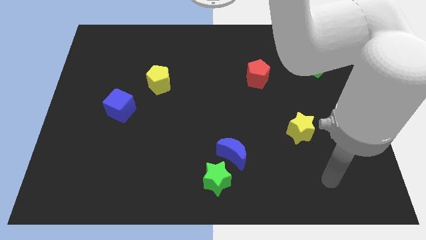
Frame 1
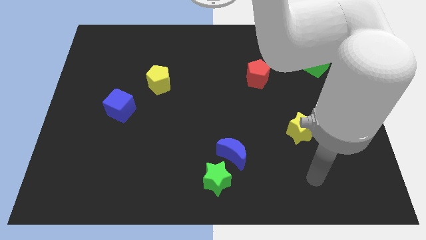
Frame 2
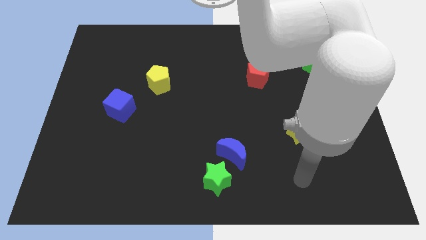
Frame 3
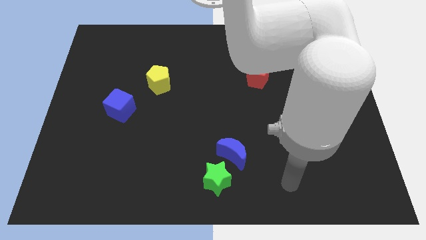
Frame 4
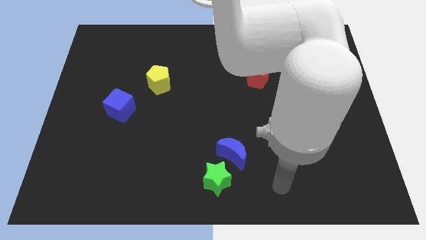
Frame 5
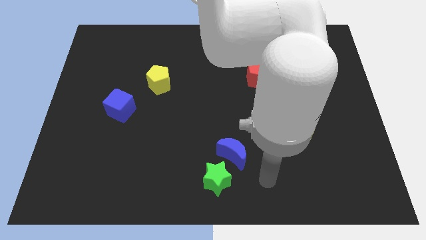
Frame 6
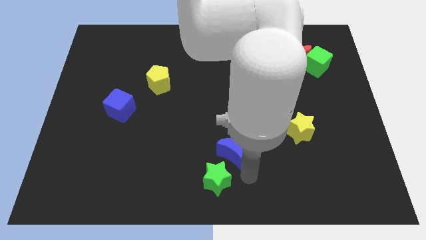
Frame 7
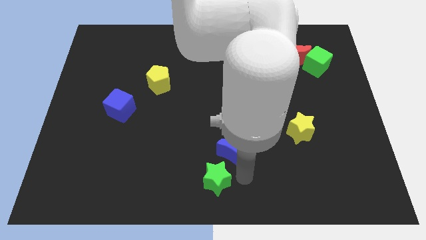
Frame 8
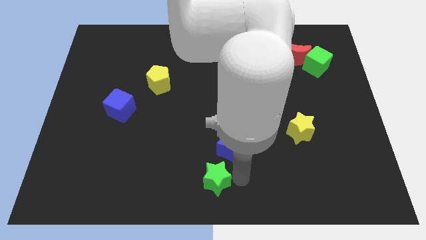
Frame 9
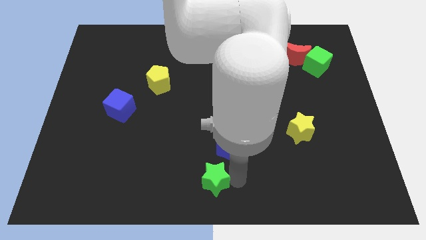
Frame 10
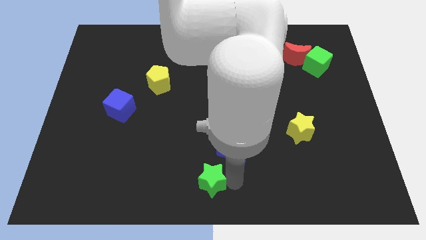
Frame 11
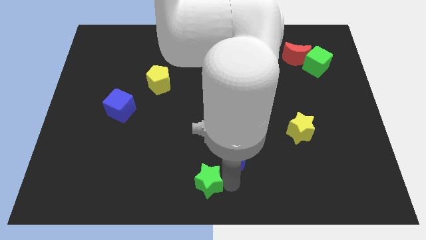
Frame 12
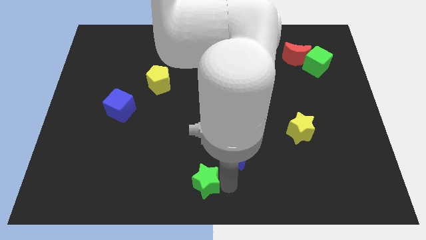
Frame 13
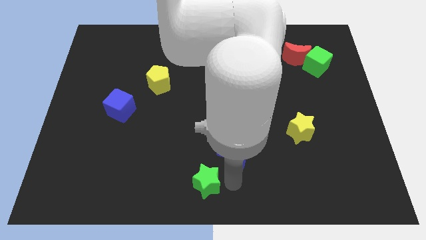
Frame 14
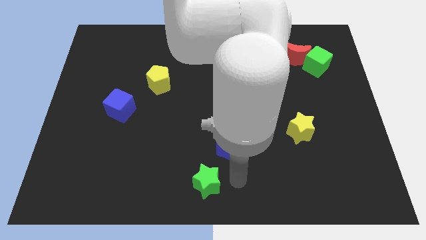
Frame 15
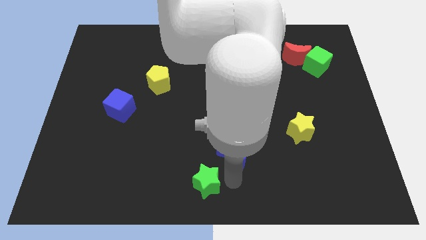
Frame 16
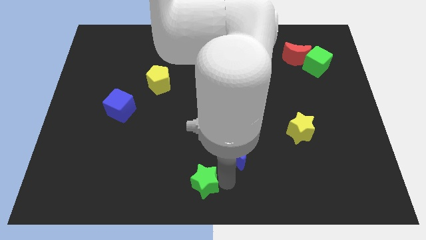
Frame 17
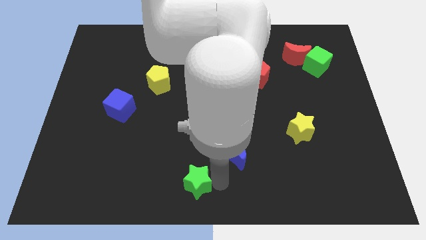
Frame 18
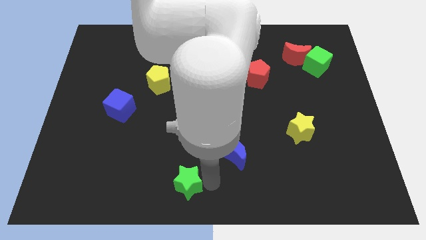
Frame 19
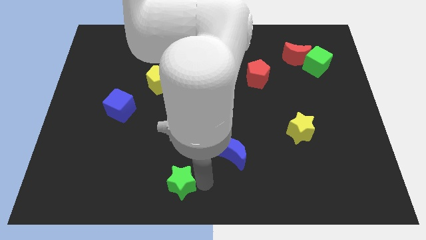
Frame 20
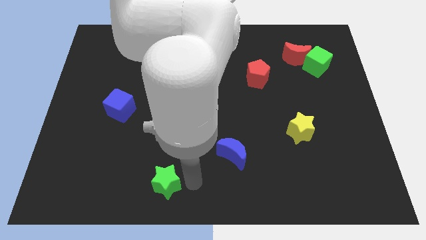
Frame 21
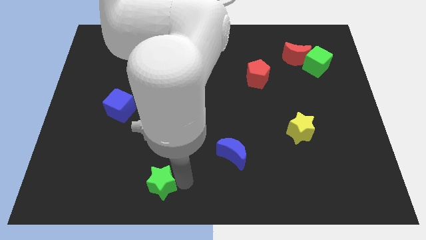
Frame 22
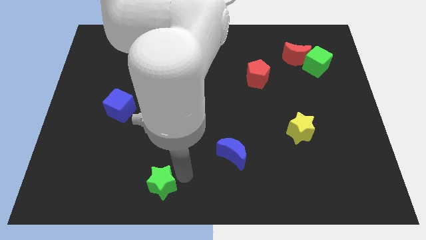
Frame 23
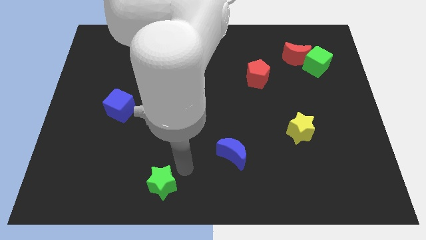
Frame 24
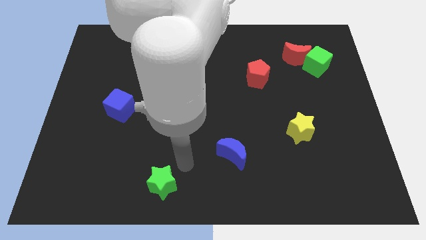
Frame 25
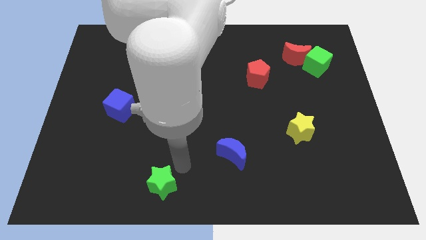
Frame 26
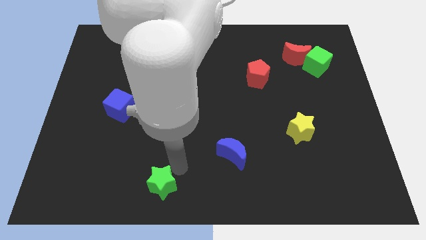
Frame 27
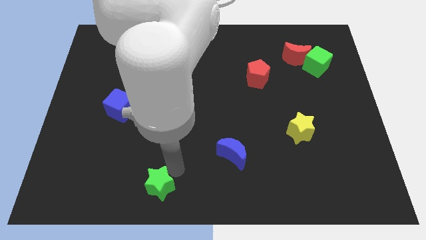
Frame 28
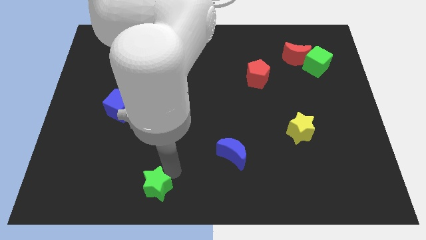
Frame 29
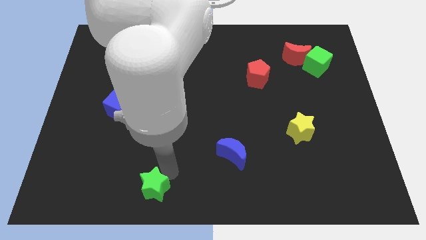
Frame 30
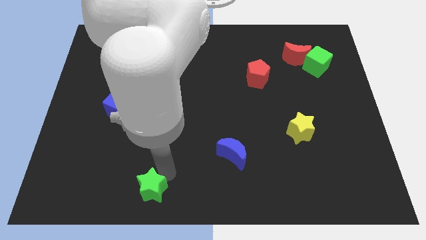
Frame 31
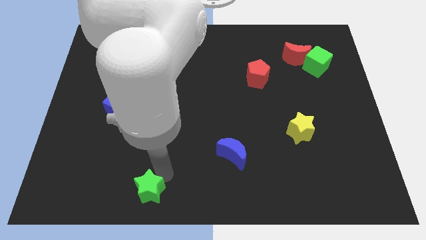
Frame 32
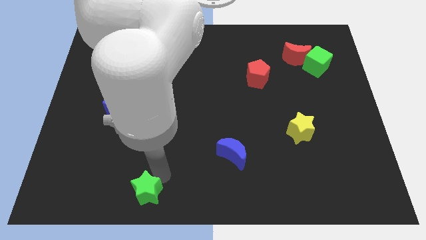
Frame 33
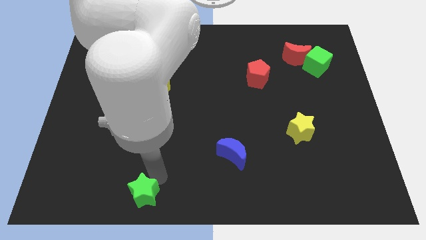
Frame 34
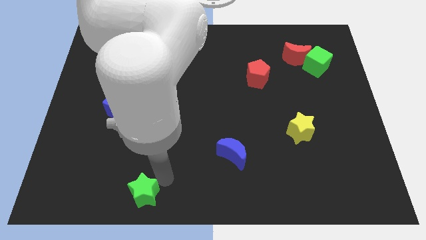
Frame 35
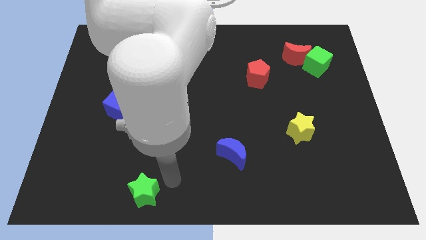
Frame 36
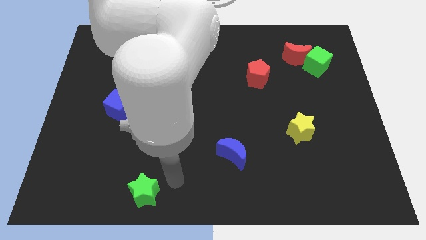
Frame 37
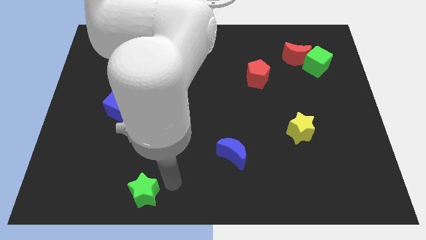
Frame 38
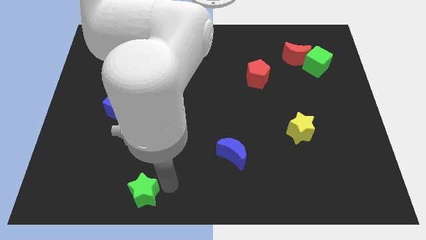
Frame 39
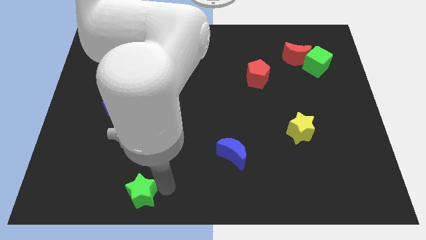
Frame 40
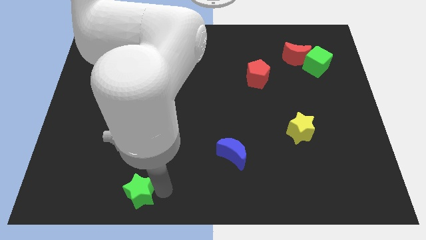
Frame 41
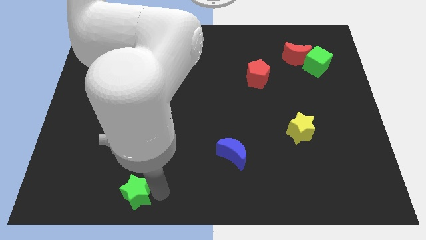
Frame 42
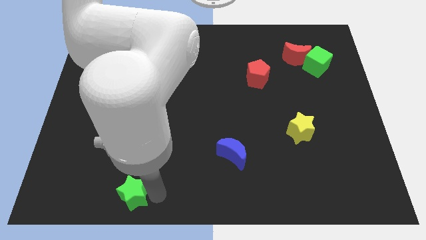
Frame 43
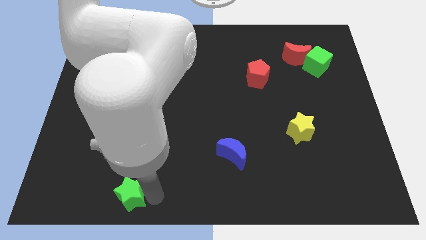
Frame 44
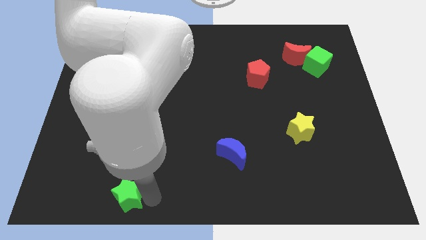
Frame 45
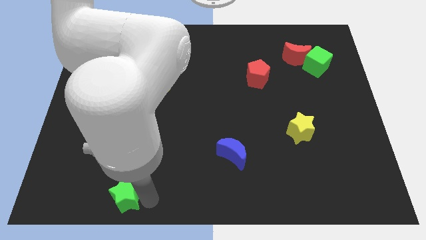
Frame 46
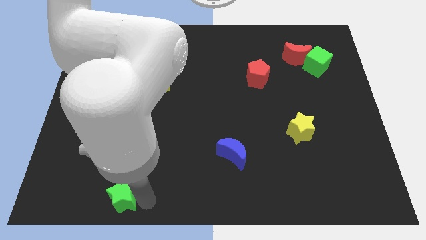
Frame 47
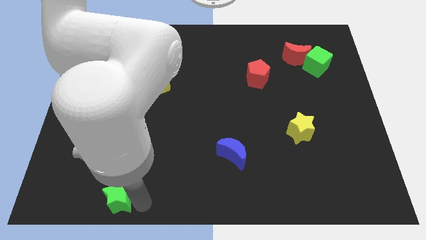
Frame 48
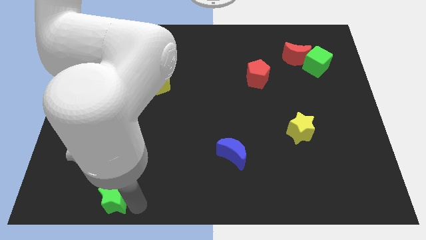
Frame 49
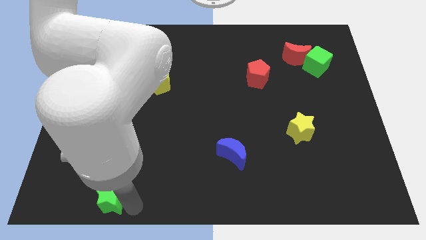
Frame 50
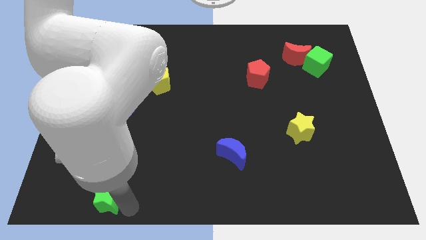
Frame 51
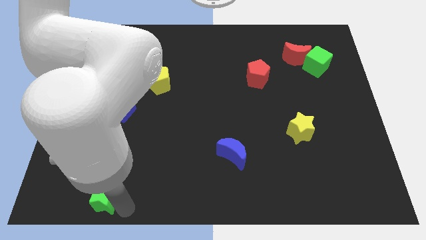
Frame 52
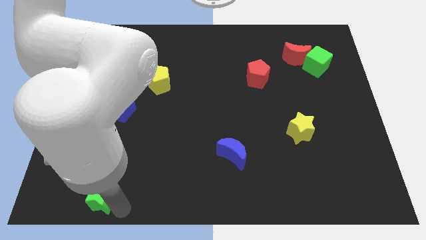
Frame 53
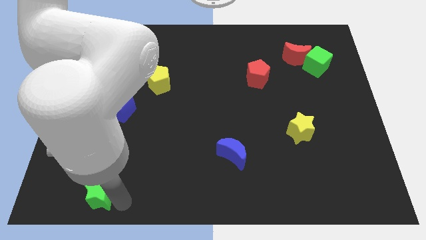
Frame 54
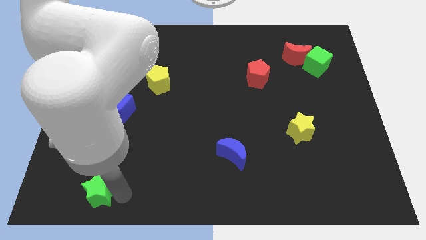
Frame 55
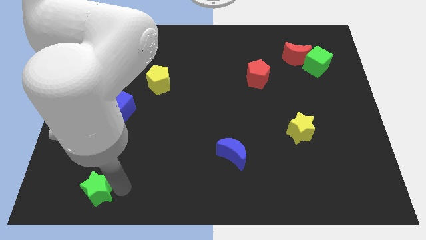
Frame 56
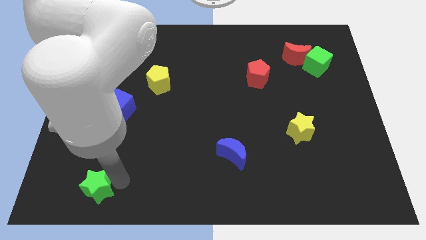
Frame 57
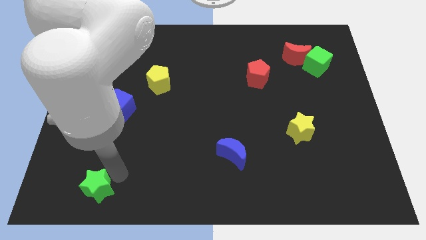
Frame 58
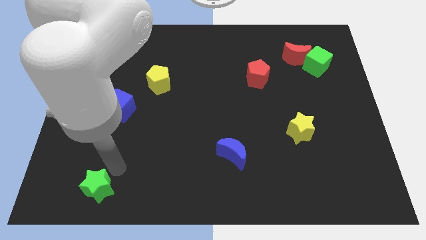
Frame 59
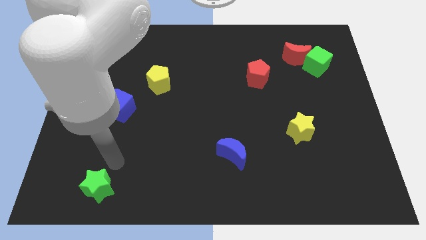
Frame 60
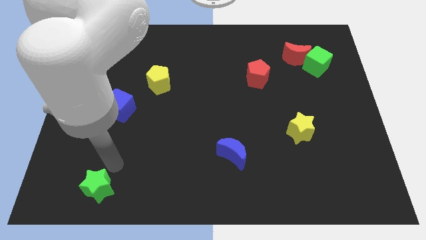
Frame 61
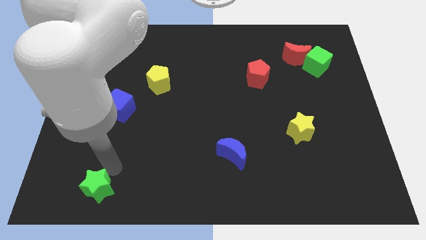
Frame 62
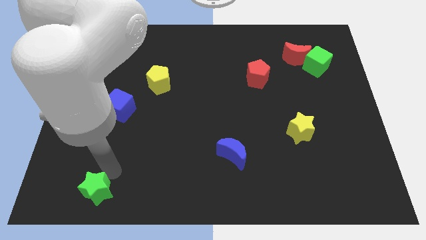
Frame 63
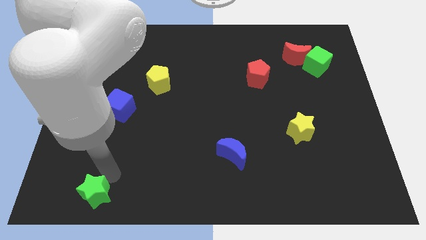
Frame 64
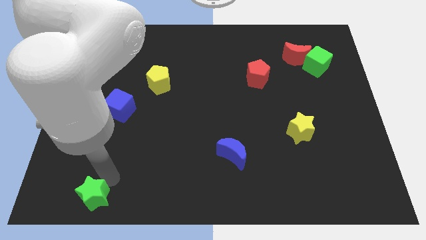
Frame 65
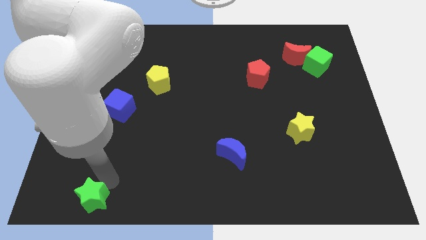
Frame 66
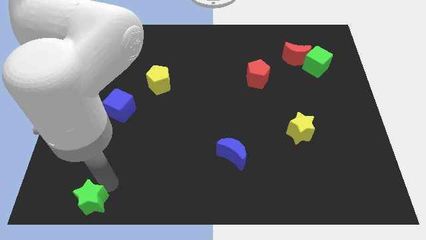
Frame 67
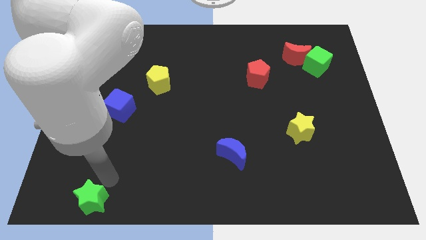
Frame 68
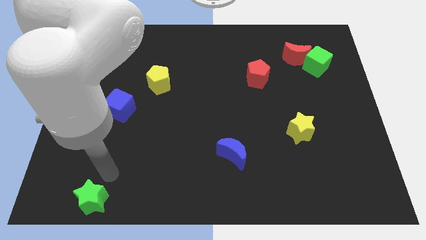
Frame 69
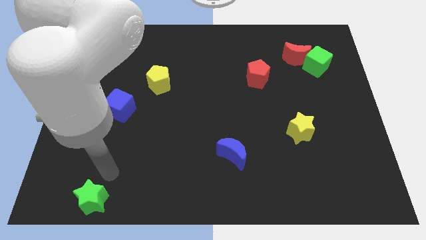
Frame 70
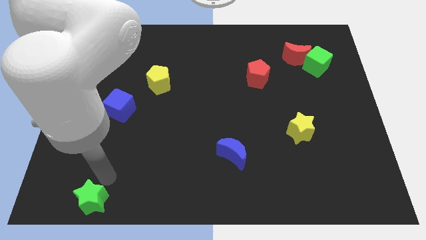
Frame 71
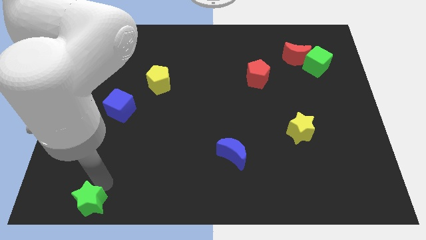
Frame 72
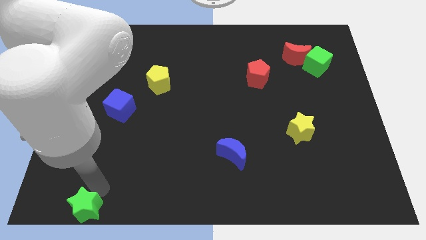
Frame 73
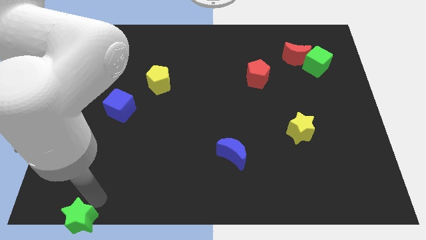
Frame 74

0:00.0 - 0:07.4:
push the green star to the bottom left corner
